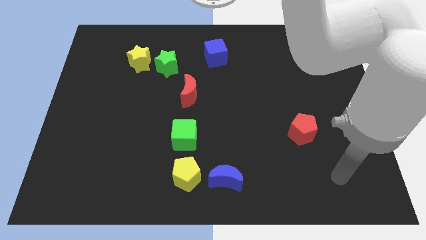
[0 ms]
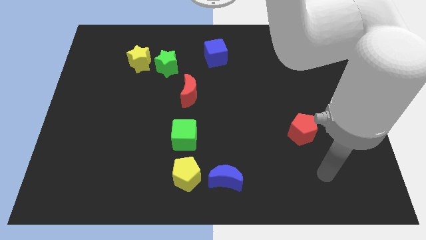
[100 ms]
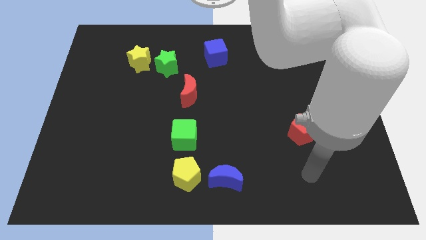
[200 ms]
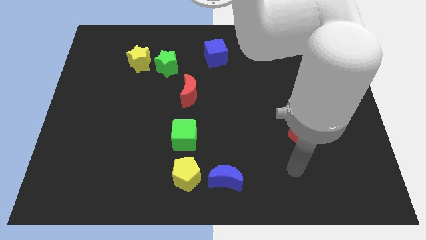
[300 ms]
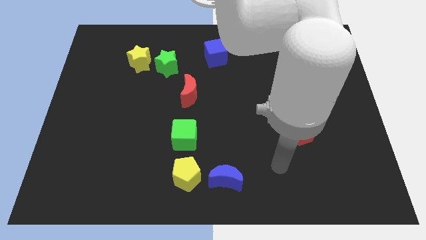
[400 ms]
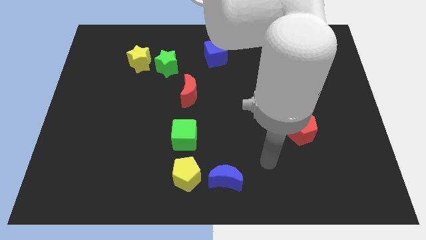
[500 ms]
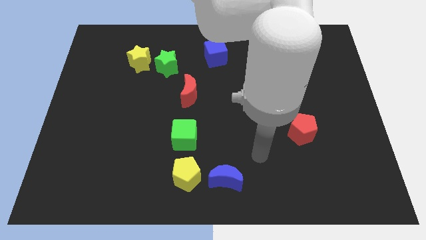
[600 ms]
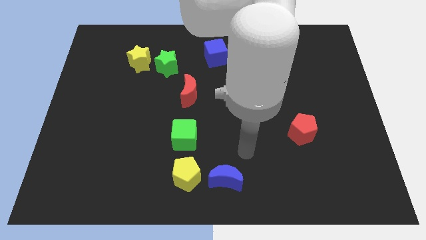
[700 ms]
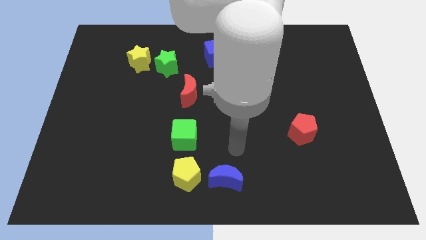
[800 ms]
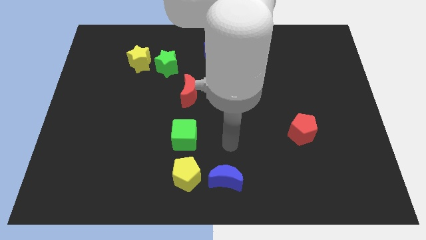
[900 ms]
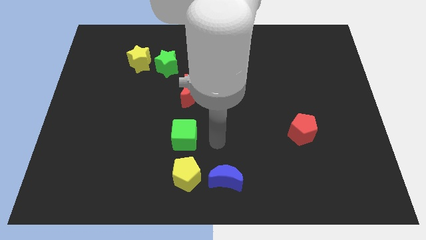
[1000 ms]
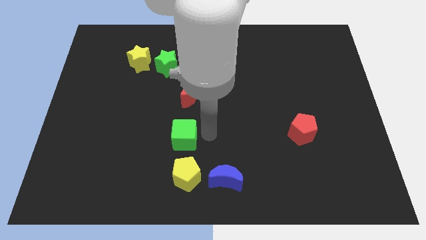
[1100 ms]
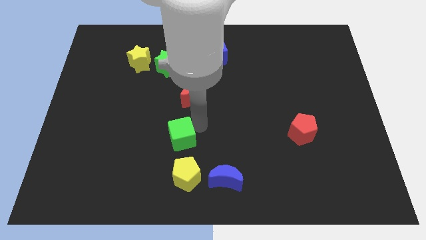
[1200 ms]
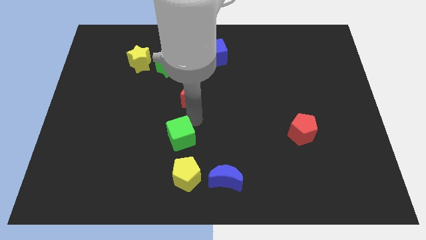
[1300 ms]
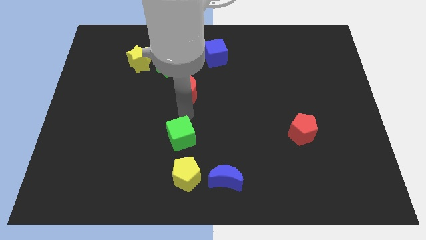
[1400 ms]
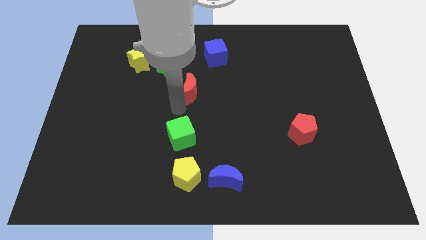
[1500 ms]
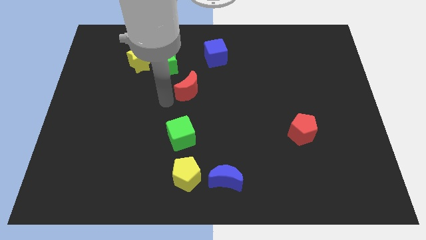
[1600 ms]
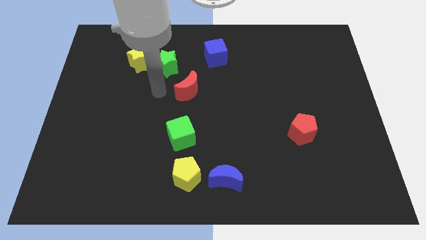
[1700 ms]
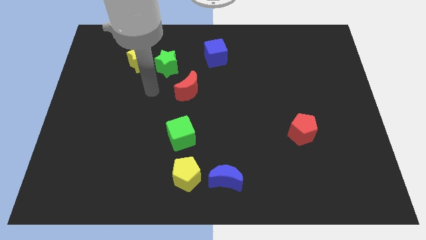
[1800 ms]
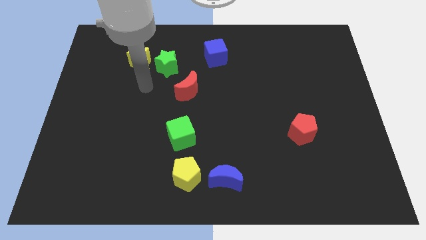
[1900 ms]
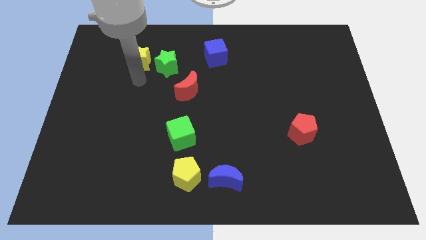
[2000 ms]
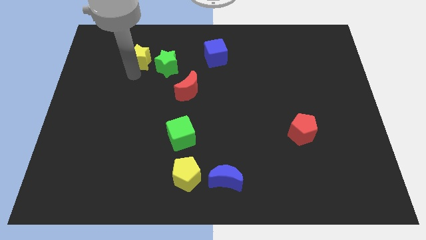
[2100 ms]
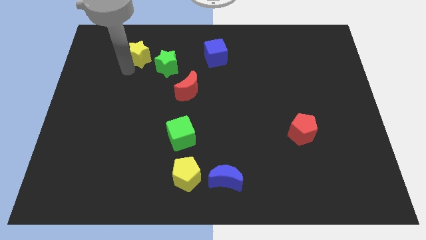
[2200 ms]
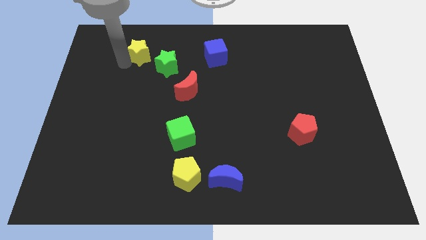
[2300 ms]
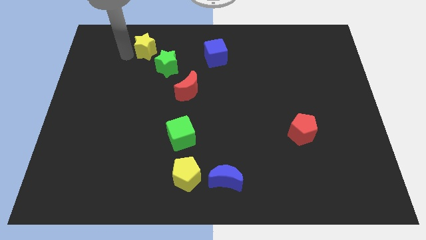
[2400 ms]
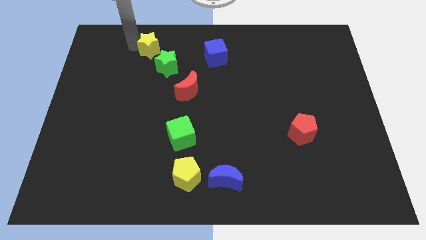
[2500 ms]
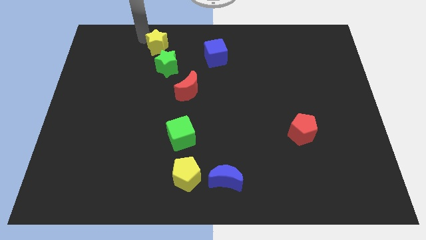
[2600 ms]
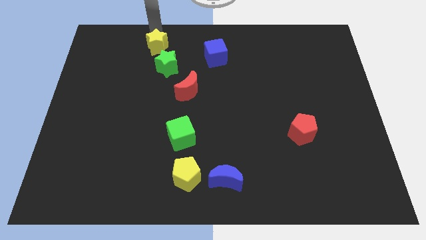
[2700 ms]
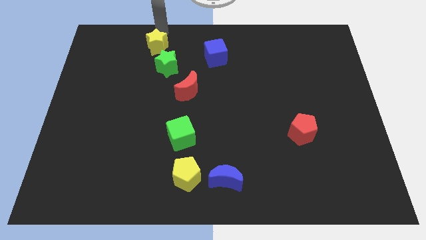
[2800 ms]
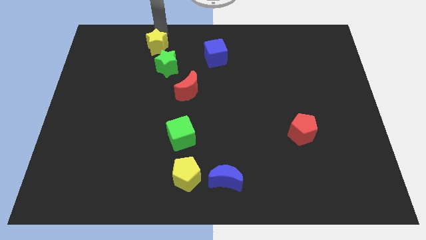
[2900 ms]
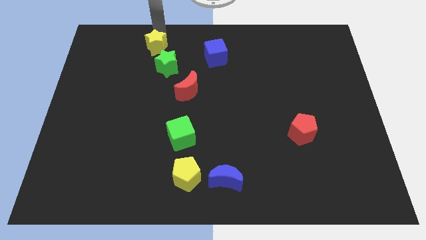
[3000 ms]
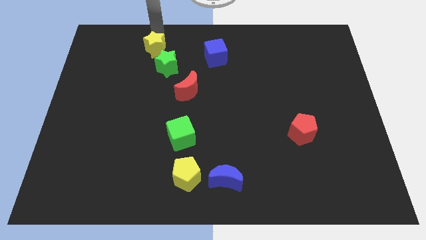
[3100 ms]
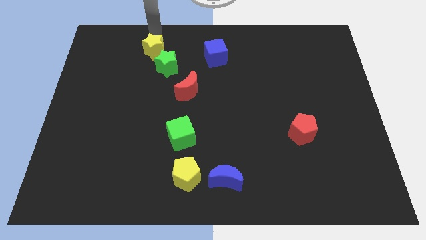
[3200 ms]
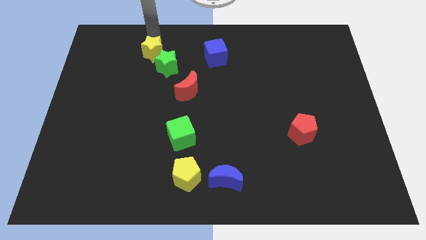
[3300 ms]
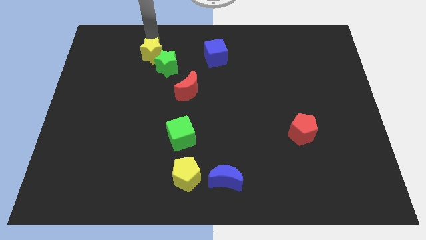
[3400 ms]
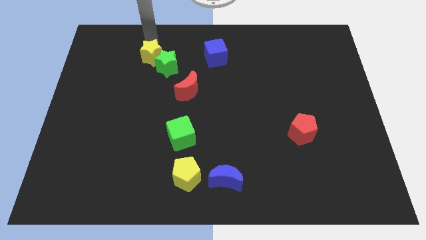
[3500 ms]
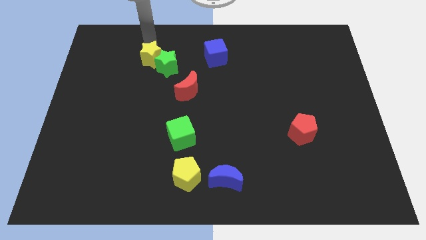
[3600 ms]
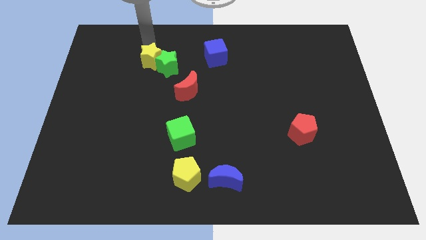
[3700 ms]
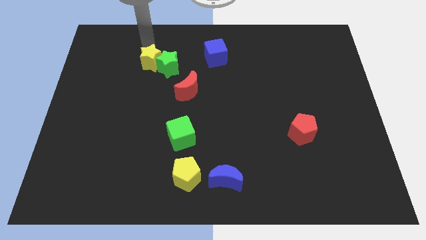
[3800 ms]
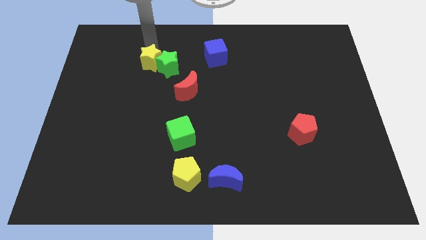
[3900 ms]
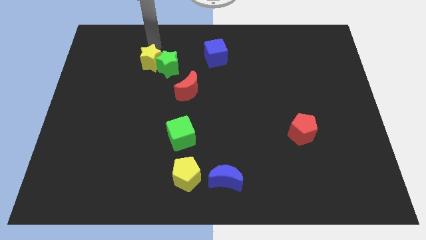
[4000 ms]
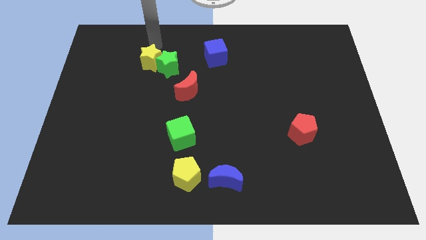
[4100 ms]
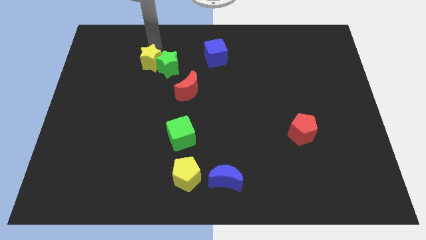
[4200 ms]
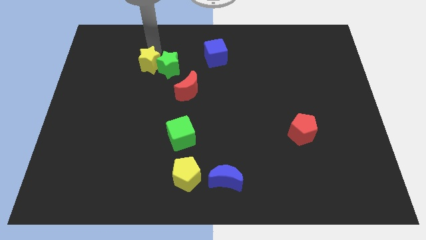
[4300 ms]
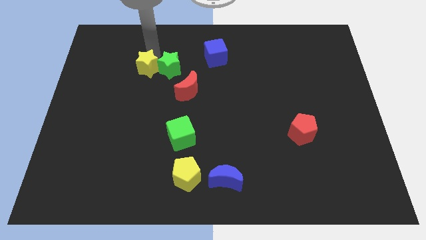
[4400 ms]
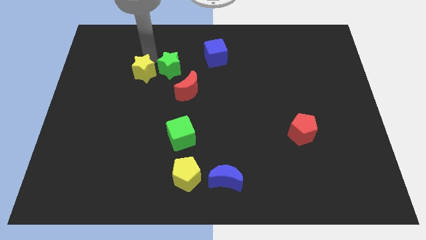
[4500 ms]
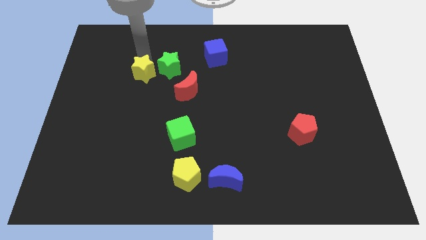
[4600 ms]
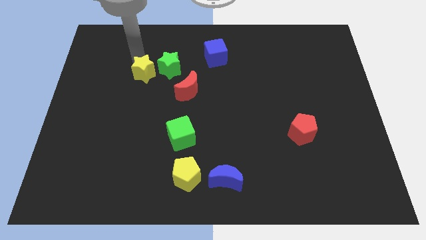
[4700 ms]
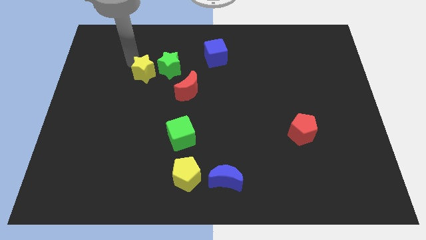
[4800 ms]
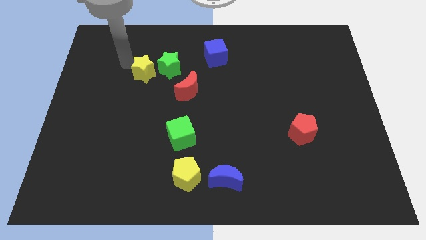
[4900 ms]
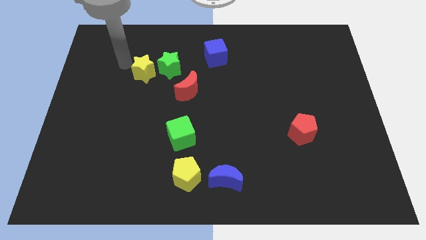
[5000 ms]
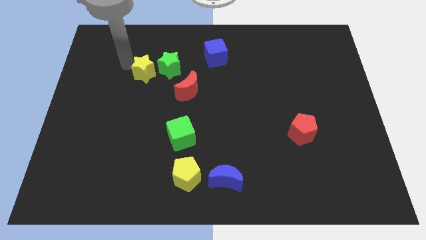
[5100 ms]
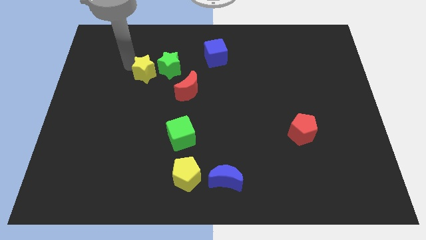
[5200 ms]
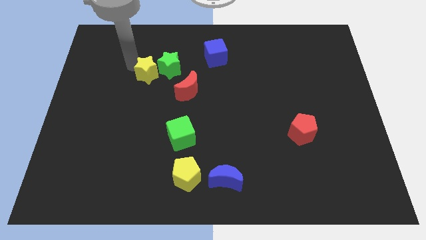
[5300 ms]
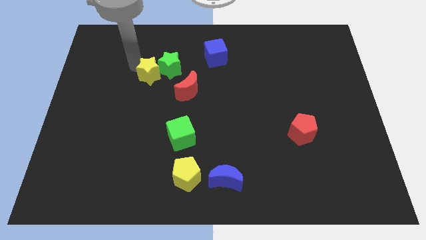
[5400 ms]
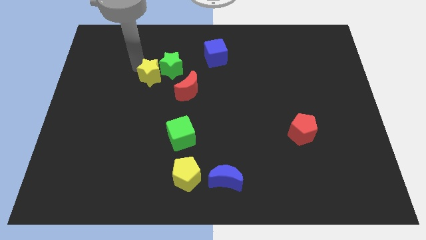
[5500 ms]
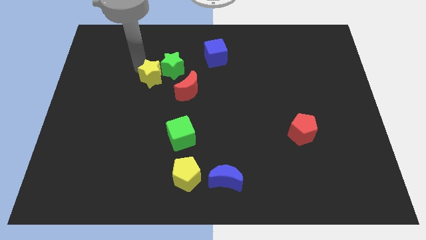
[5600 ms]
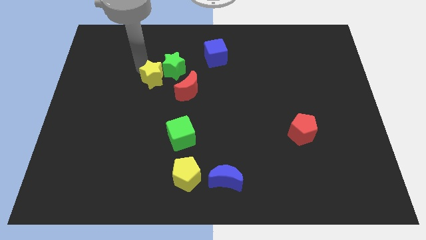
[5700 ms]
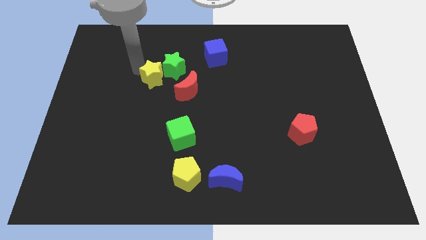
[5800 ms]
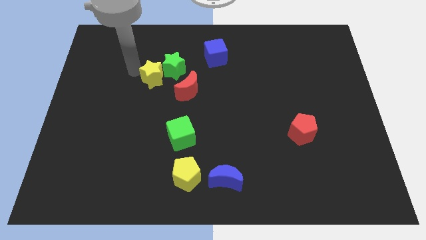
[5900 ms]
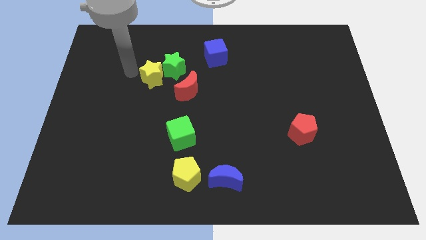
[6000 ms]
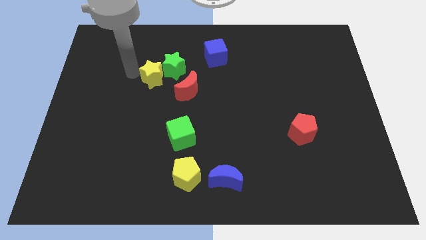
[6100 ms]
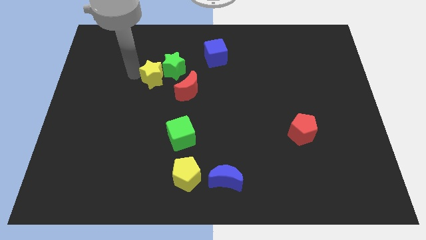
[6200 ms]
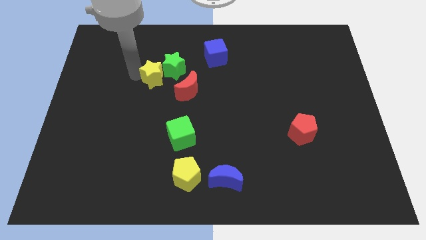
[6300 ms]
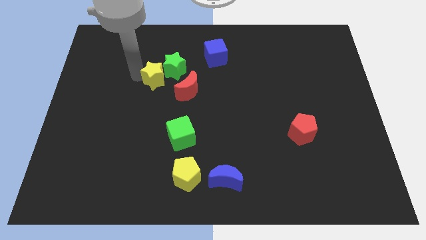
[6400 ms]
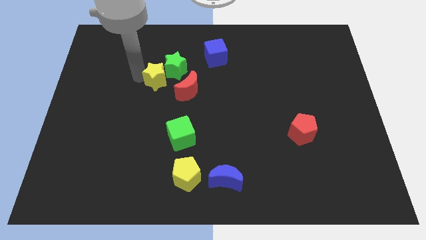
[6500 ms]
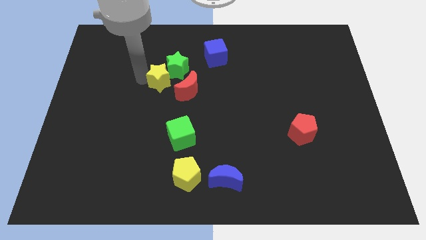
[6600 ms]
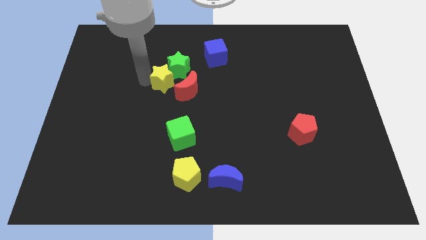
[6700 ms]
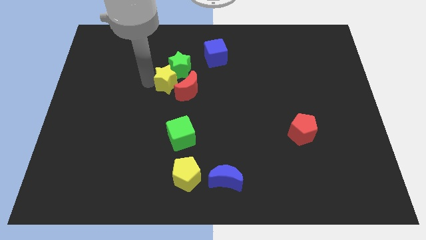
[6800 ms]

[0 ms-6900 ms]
move the yellow star to the middle of the board
